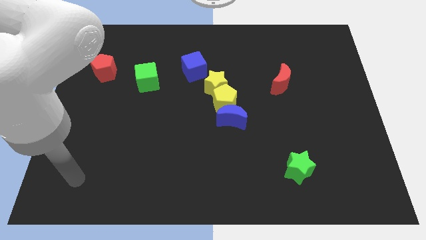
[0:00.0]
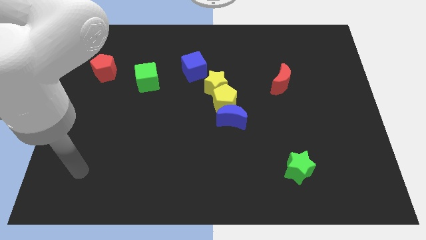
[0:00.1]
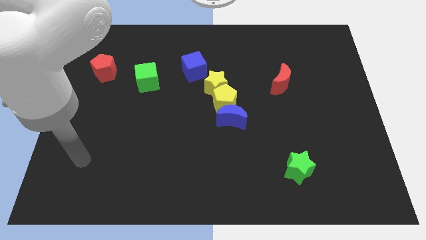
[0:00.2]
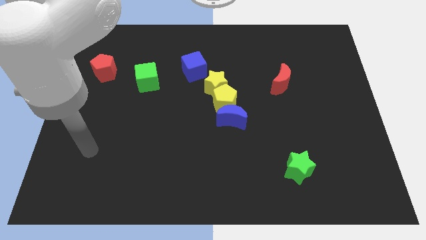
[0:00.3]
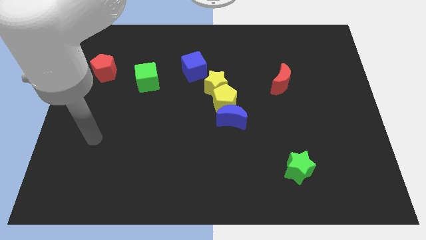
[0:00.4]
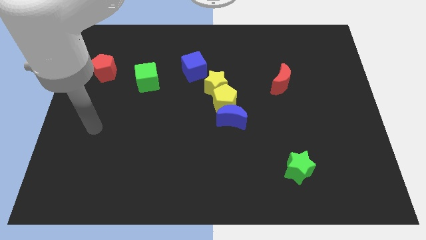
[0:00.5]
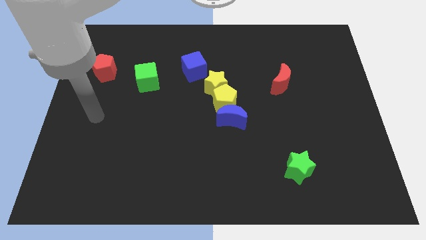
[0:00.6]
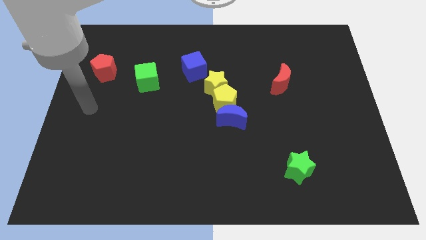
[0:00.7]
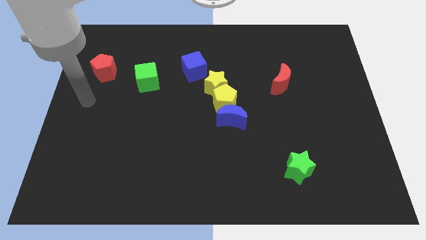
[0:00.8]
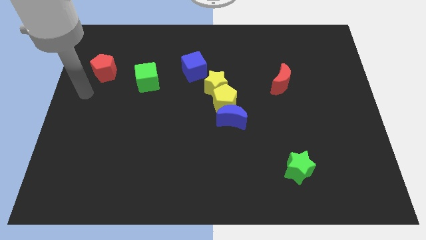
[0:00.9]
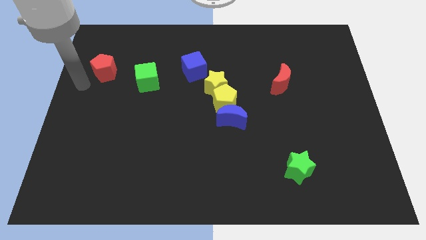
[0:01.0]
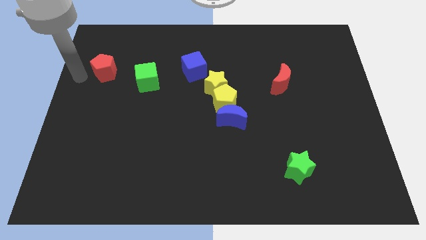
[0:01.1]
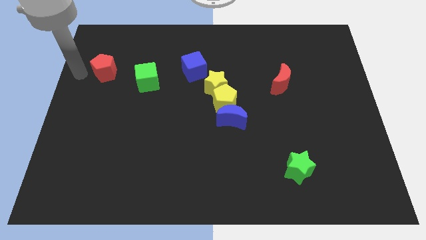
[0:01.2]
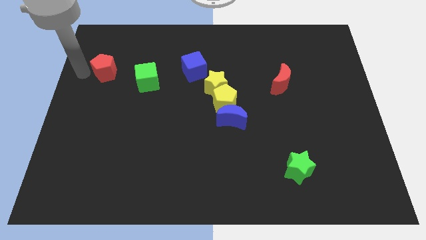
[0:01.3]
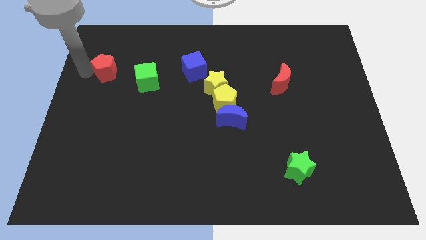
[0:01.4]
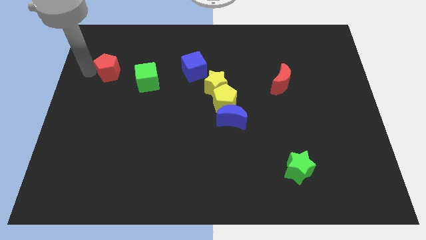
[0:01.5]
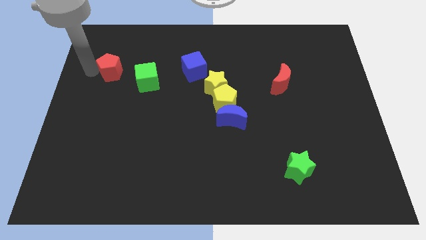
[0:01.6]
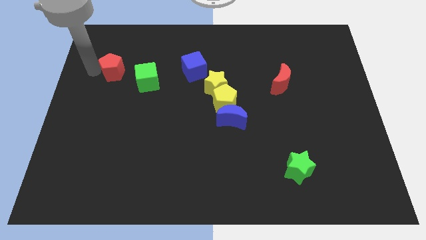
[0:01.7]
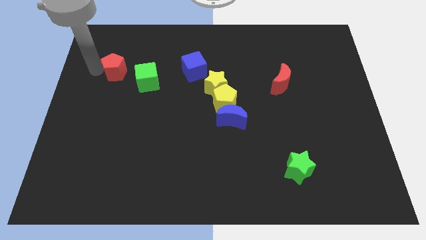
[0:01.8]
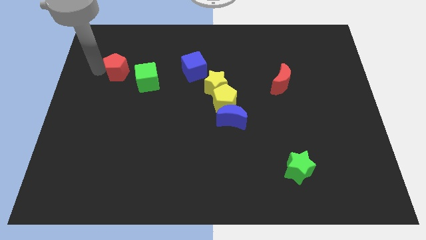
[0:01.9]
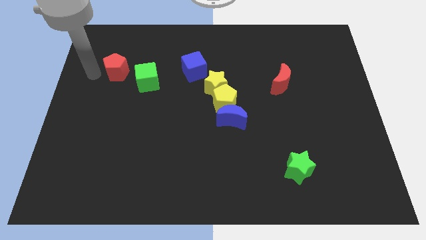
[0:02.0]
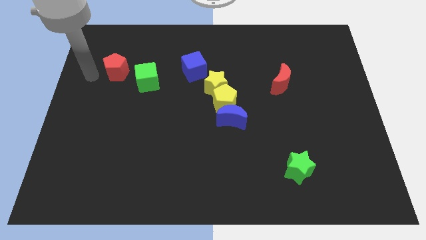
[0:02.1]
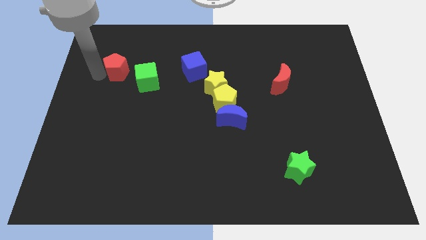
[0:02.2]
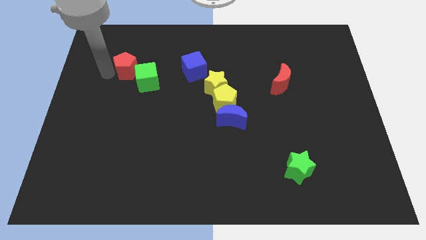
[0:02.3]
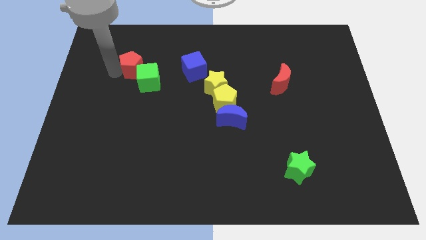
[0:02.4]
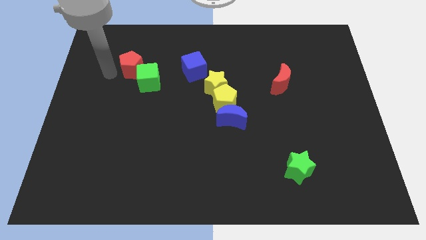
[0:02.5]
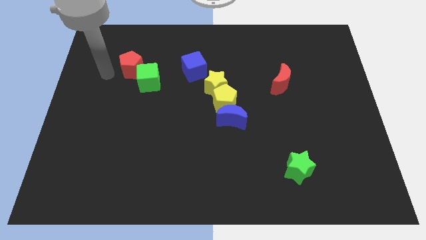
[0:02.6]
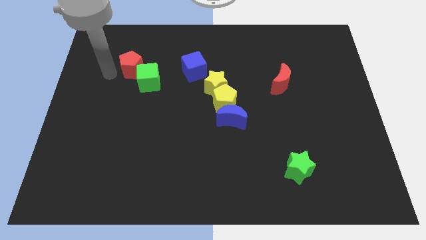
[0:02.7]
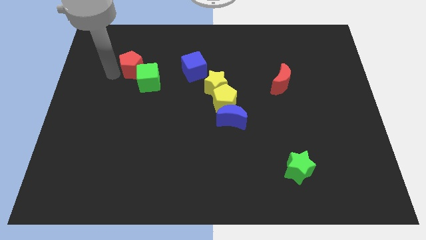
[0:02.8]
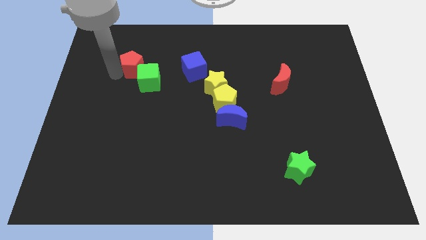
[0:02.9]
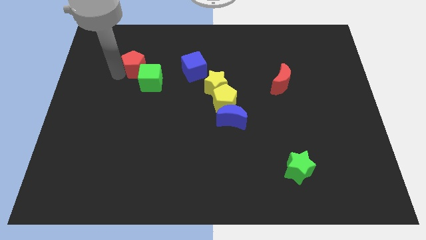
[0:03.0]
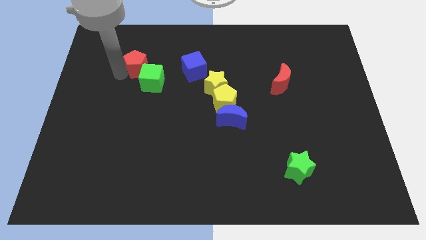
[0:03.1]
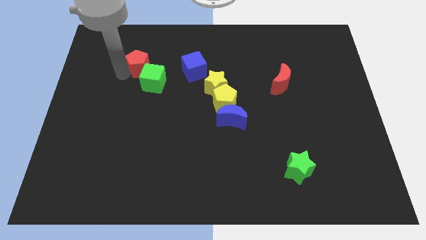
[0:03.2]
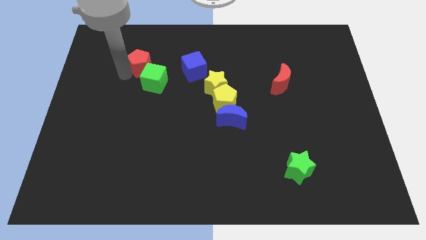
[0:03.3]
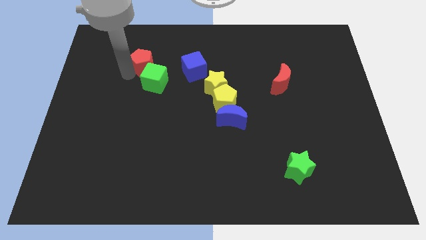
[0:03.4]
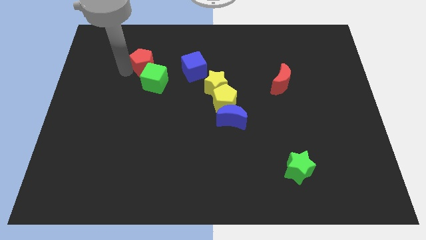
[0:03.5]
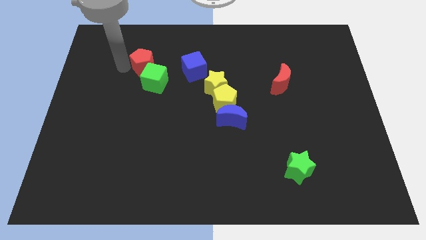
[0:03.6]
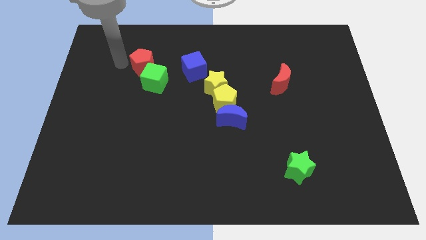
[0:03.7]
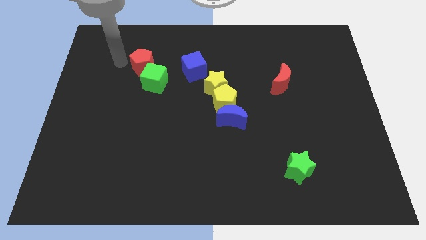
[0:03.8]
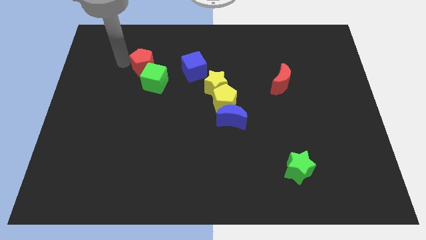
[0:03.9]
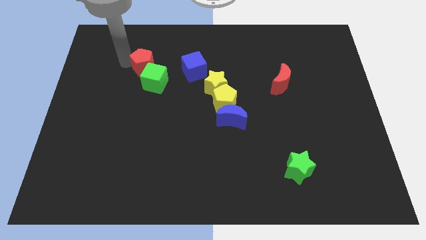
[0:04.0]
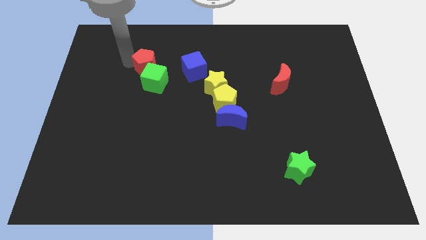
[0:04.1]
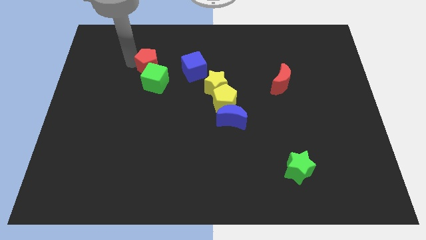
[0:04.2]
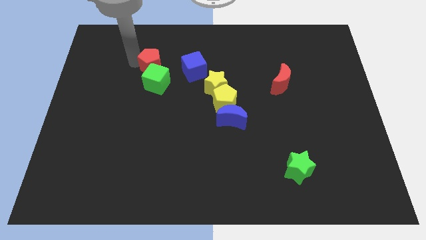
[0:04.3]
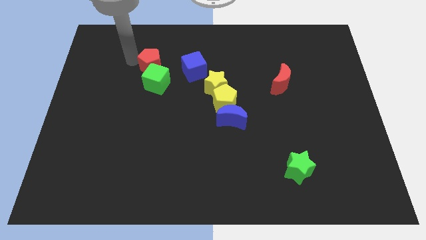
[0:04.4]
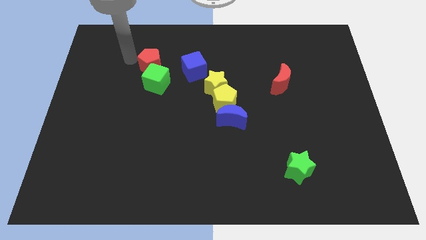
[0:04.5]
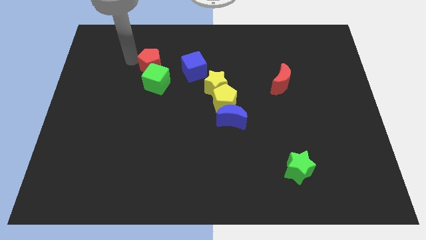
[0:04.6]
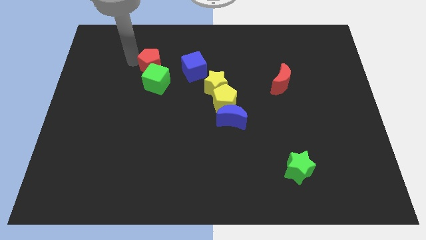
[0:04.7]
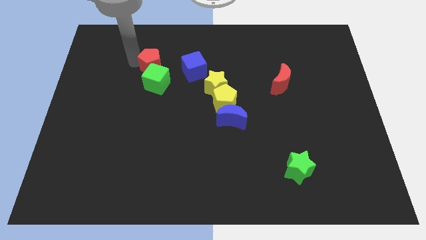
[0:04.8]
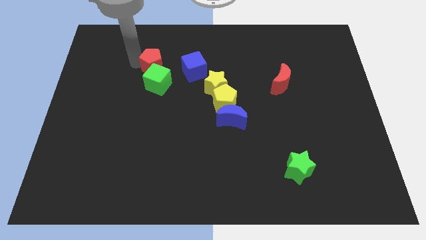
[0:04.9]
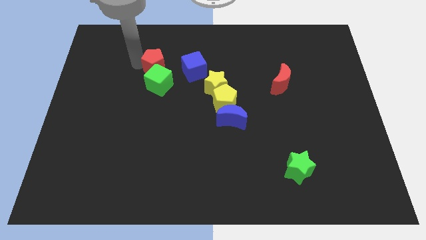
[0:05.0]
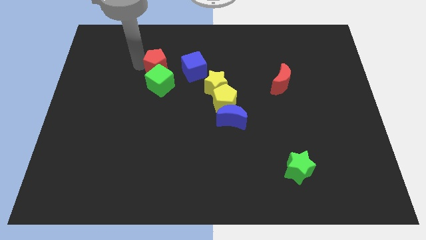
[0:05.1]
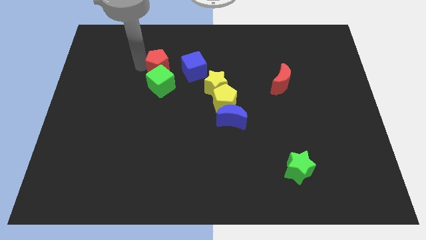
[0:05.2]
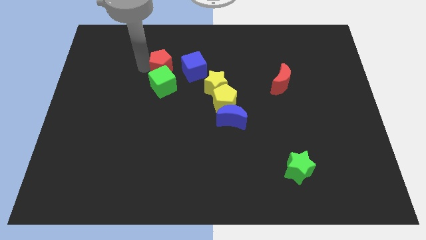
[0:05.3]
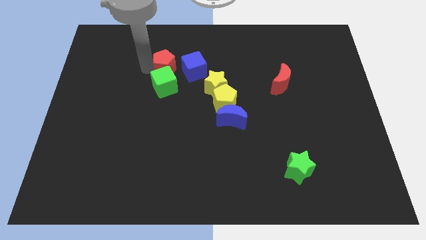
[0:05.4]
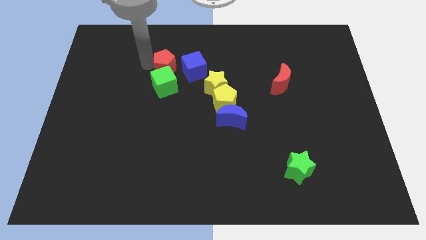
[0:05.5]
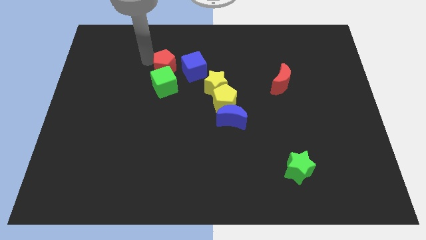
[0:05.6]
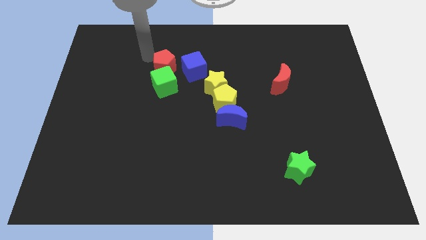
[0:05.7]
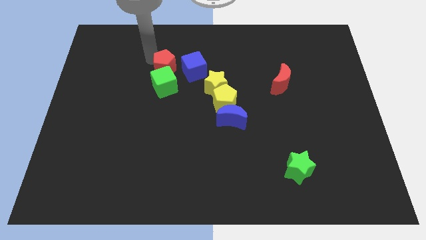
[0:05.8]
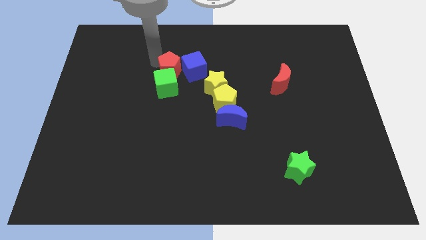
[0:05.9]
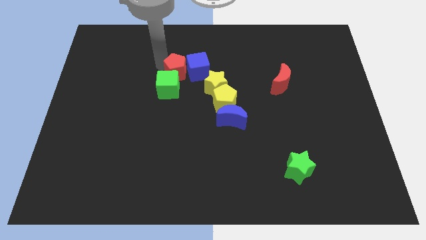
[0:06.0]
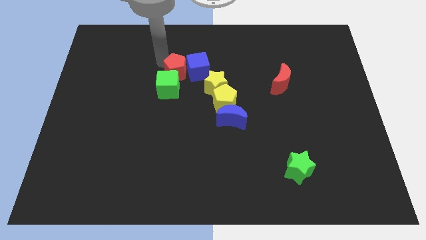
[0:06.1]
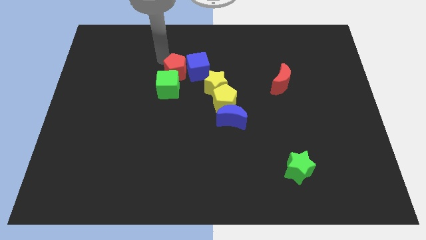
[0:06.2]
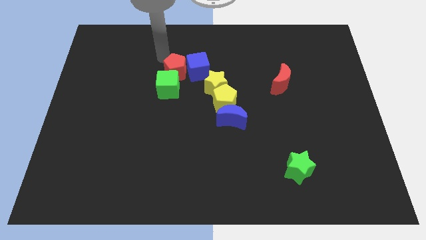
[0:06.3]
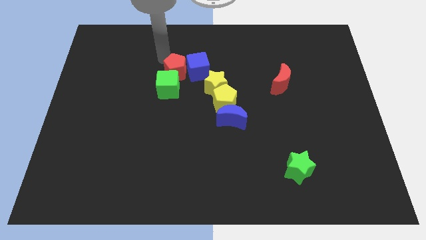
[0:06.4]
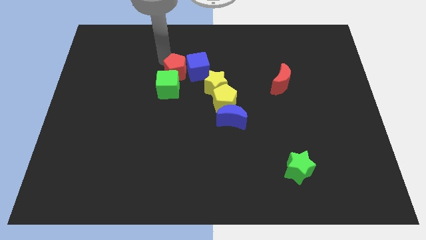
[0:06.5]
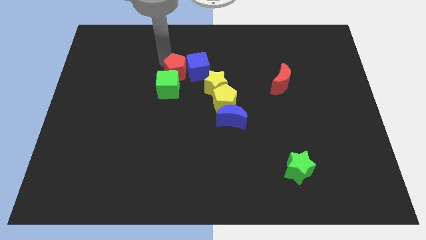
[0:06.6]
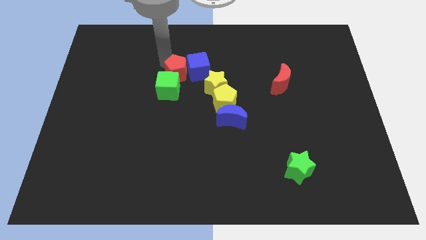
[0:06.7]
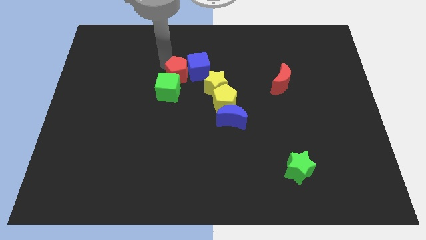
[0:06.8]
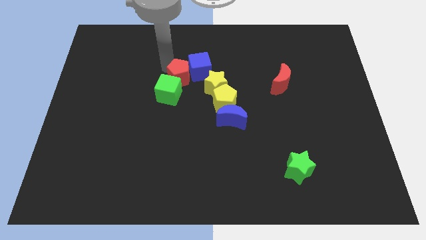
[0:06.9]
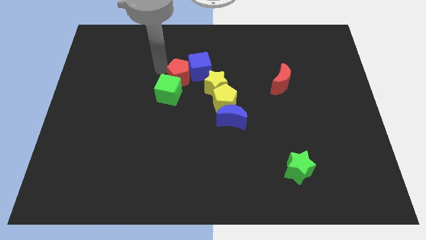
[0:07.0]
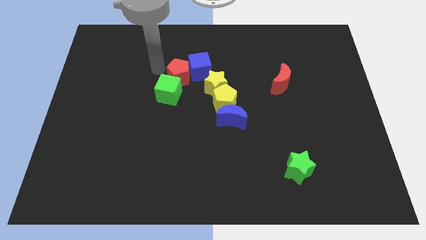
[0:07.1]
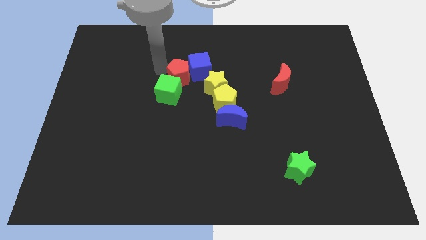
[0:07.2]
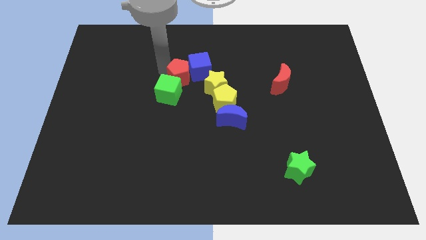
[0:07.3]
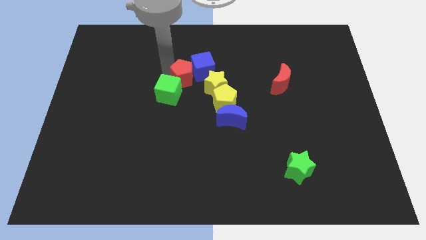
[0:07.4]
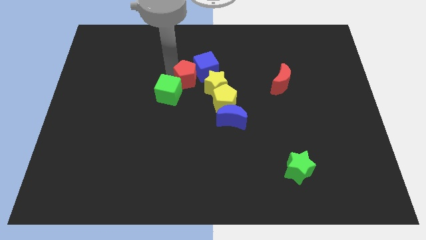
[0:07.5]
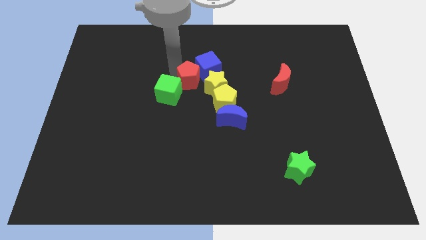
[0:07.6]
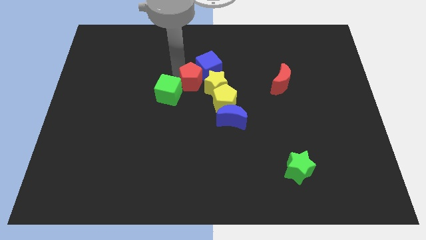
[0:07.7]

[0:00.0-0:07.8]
slide the red pentagon to the yellow star
